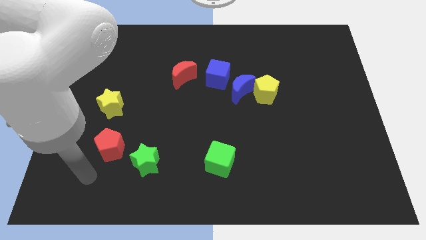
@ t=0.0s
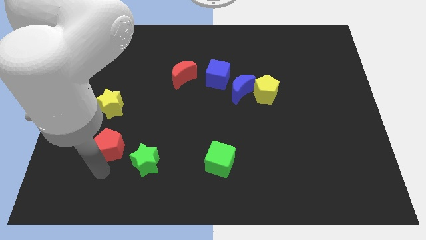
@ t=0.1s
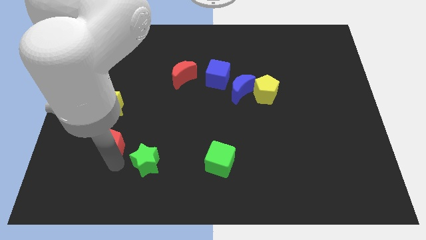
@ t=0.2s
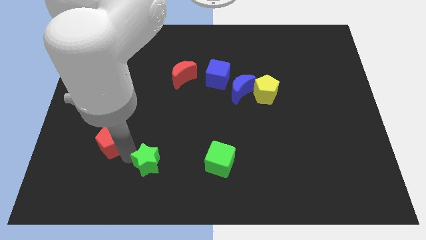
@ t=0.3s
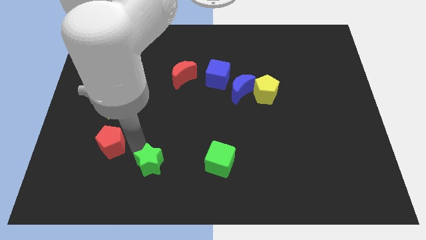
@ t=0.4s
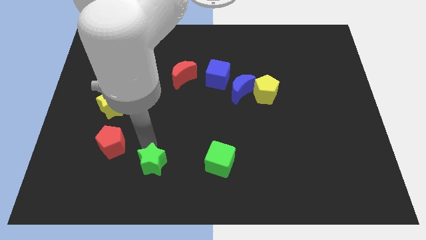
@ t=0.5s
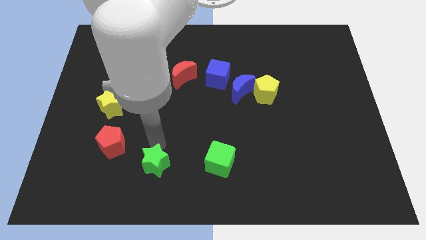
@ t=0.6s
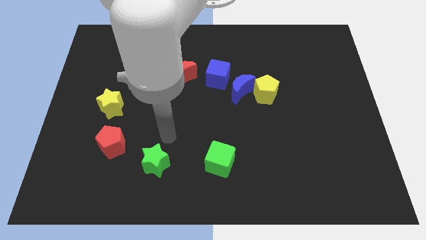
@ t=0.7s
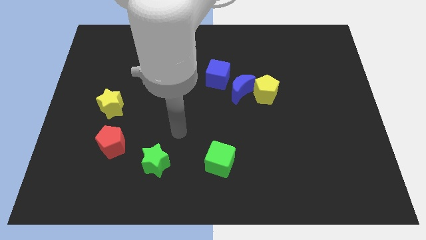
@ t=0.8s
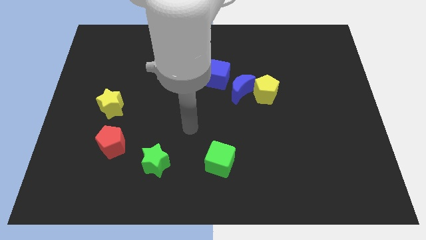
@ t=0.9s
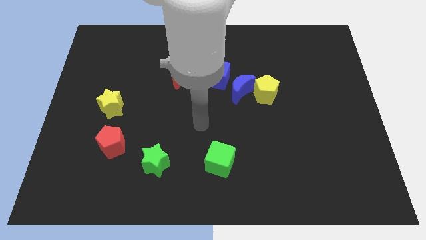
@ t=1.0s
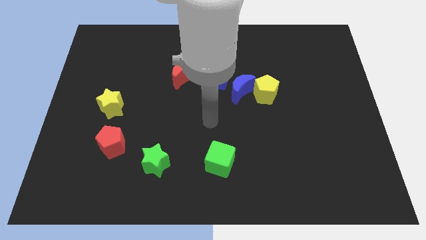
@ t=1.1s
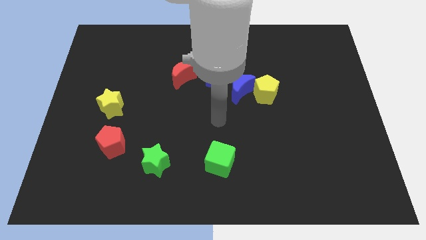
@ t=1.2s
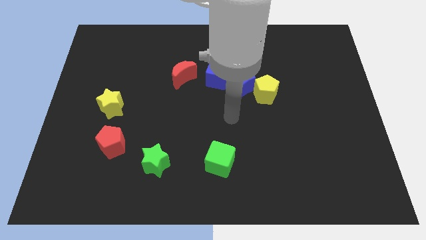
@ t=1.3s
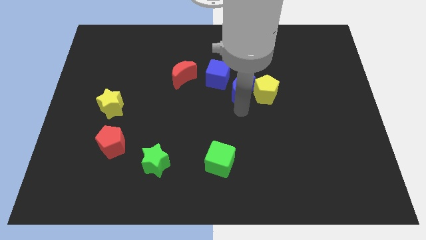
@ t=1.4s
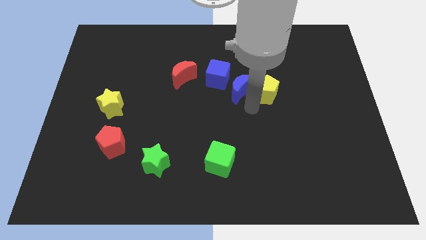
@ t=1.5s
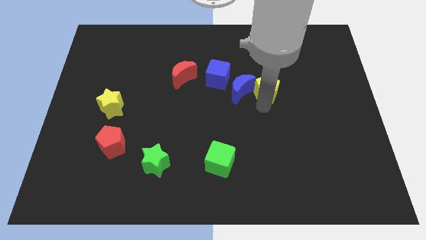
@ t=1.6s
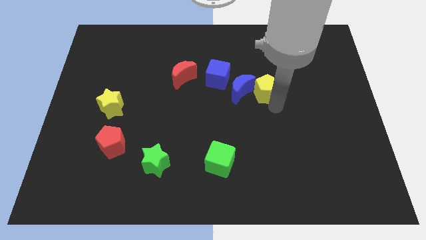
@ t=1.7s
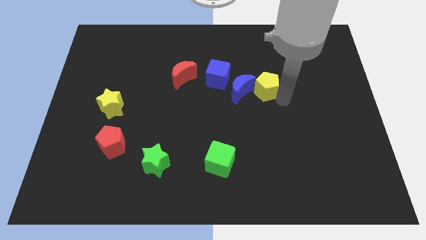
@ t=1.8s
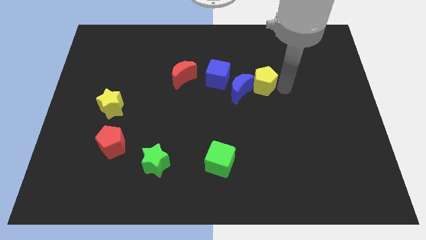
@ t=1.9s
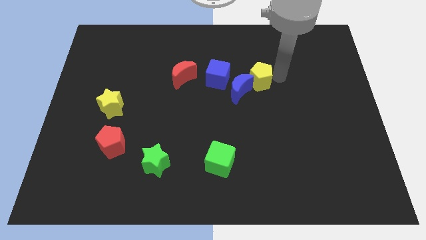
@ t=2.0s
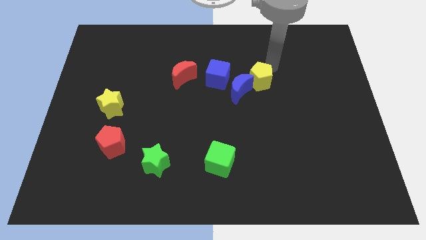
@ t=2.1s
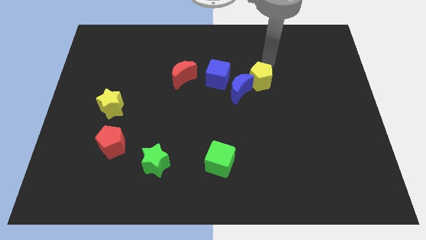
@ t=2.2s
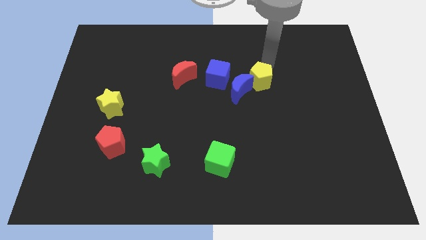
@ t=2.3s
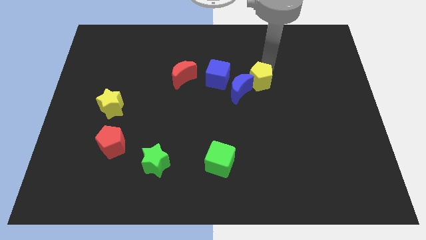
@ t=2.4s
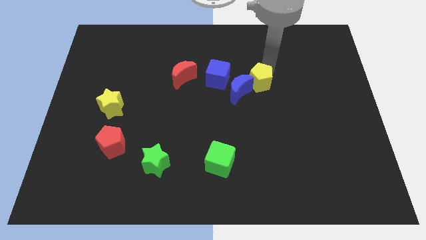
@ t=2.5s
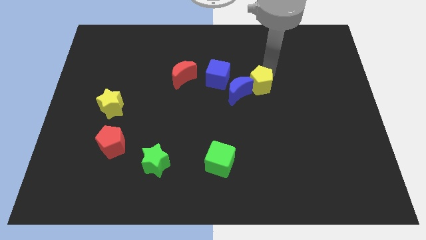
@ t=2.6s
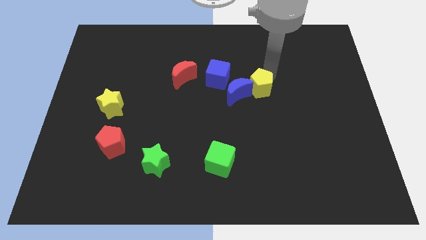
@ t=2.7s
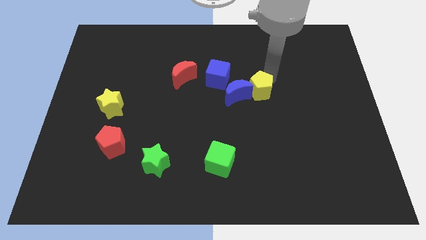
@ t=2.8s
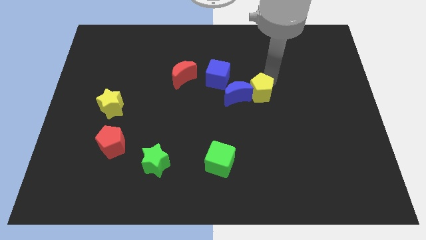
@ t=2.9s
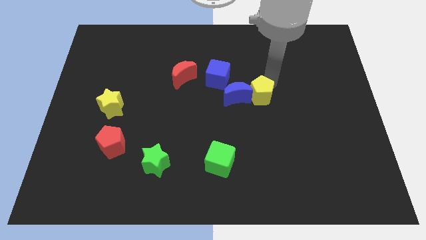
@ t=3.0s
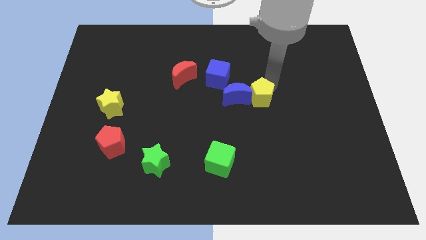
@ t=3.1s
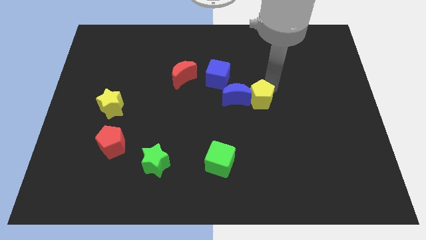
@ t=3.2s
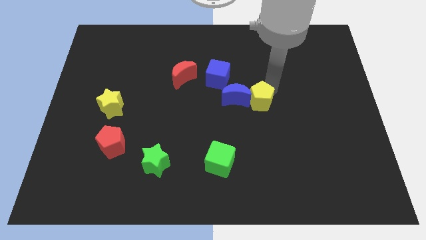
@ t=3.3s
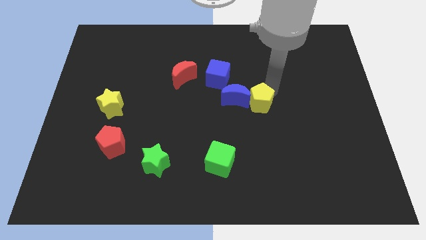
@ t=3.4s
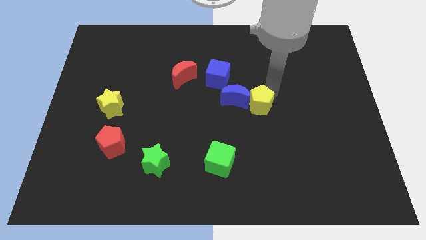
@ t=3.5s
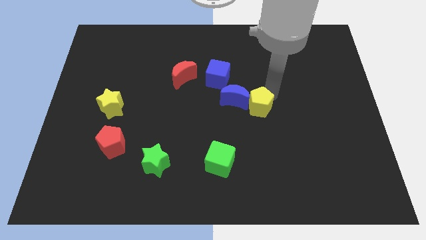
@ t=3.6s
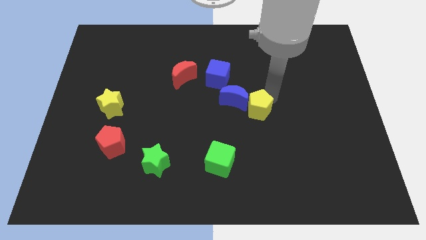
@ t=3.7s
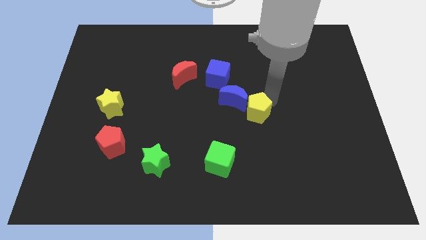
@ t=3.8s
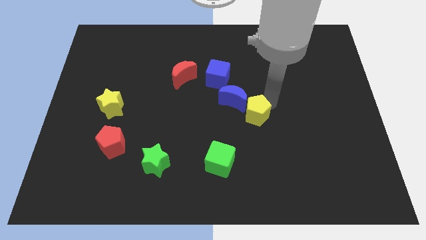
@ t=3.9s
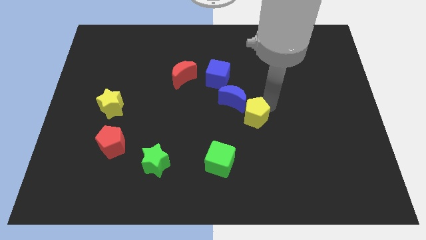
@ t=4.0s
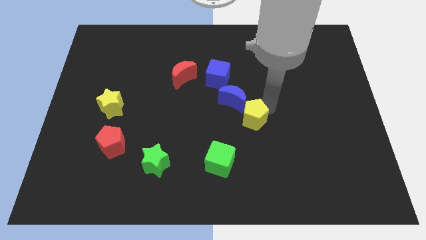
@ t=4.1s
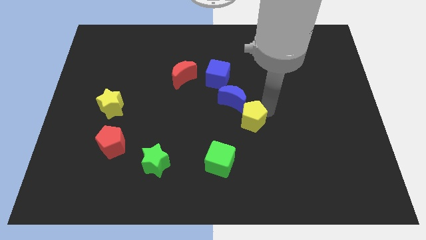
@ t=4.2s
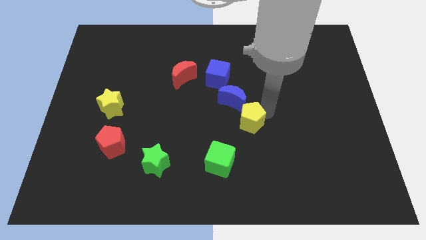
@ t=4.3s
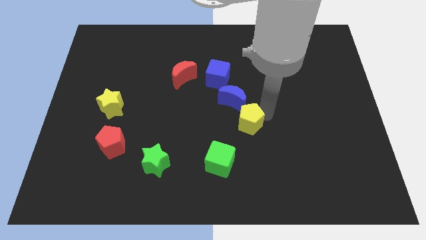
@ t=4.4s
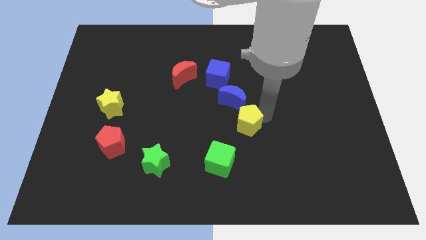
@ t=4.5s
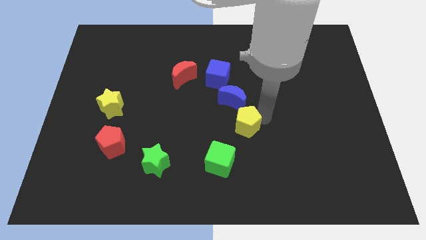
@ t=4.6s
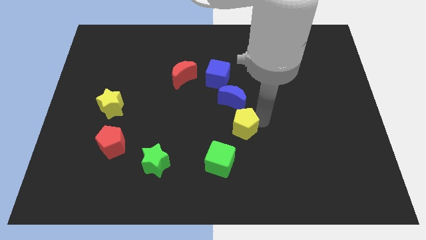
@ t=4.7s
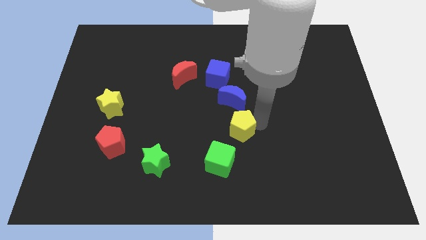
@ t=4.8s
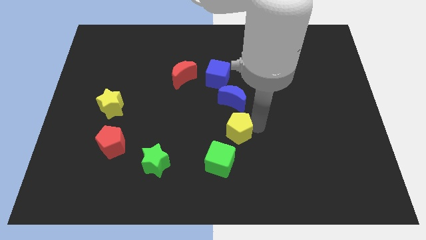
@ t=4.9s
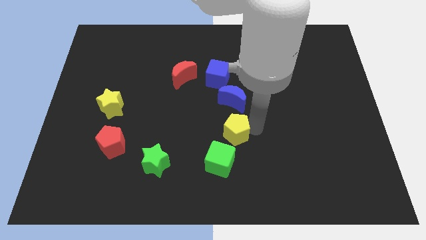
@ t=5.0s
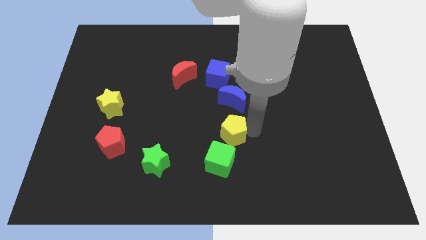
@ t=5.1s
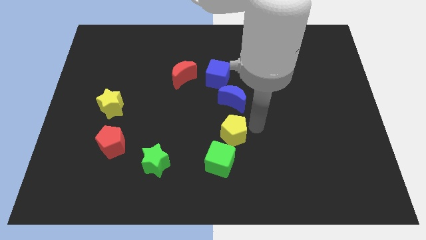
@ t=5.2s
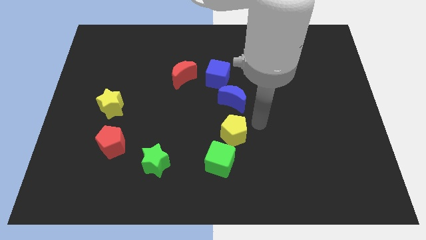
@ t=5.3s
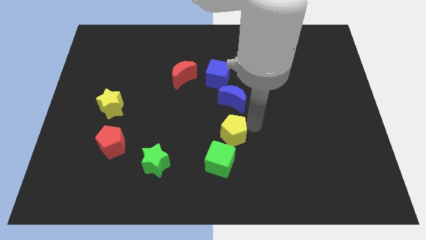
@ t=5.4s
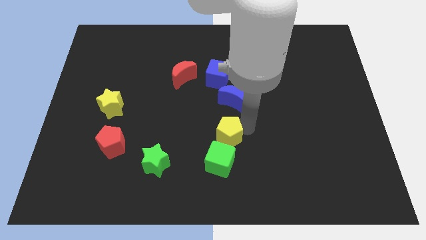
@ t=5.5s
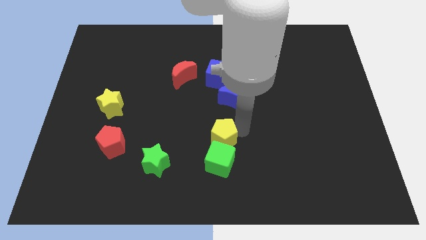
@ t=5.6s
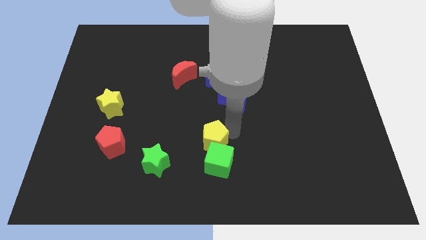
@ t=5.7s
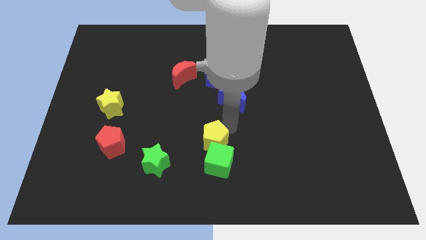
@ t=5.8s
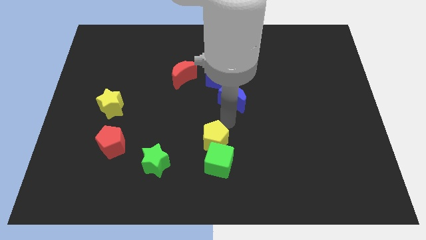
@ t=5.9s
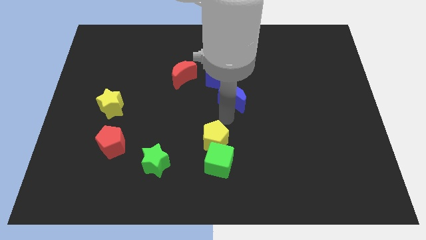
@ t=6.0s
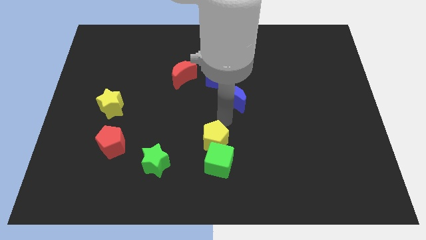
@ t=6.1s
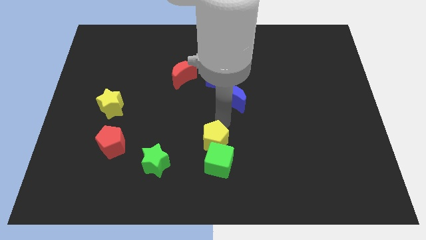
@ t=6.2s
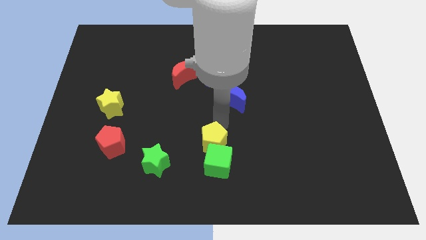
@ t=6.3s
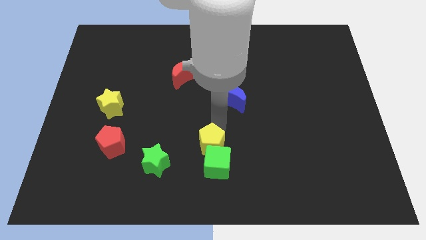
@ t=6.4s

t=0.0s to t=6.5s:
put the yellow pentagon just right of the green star

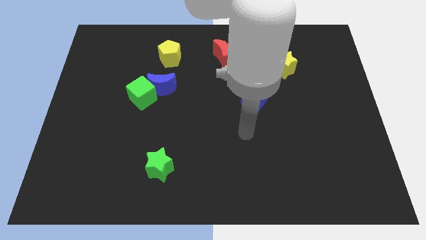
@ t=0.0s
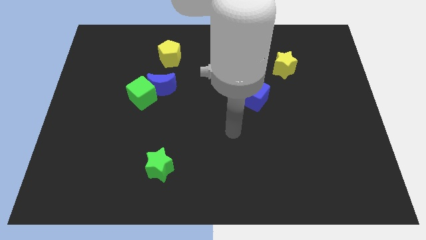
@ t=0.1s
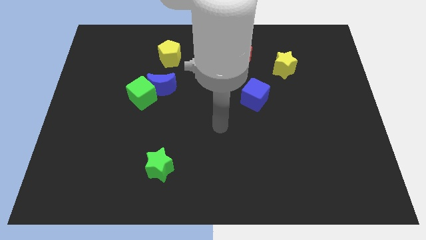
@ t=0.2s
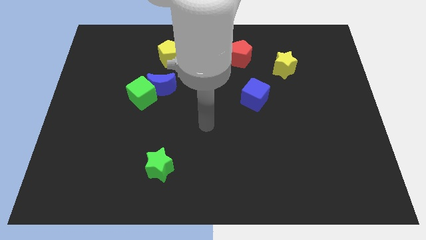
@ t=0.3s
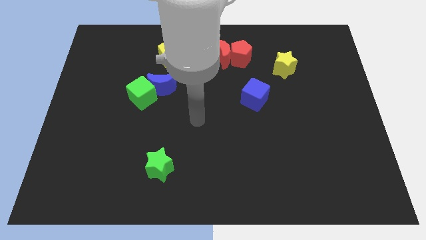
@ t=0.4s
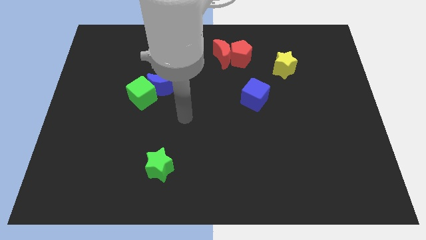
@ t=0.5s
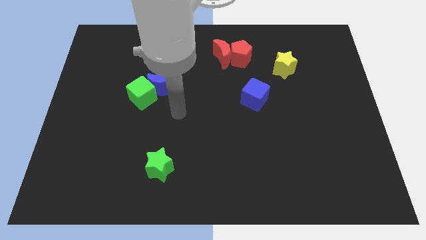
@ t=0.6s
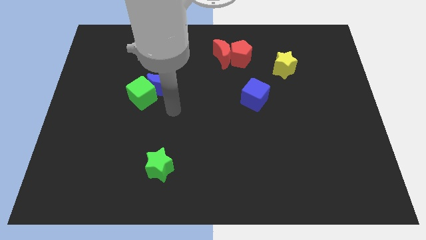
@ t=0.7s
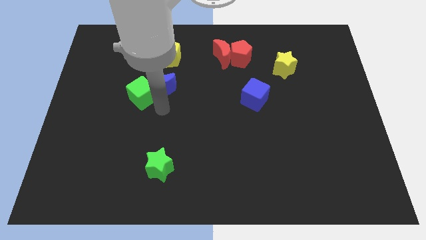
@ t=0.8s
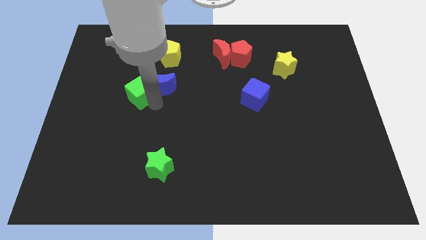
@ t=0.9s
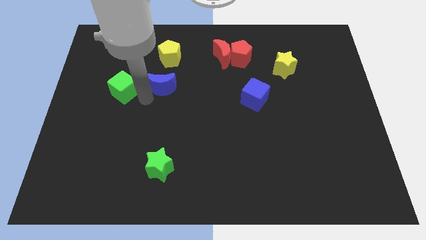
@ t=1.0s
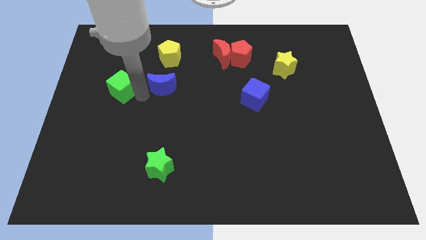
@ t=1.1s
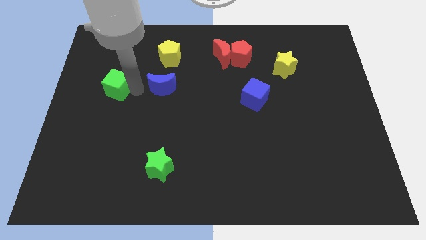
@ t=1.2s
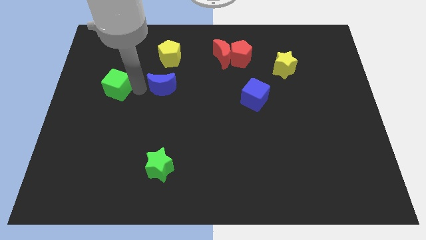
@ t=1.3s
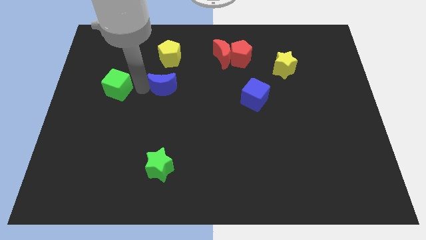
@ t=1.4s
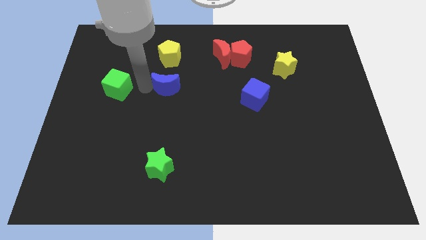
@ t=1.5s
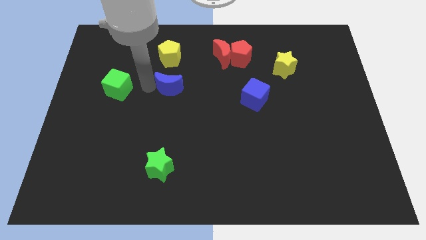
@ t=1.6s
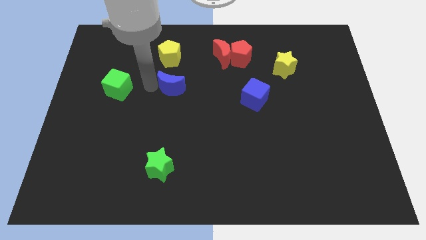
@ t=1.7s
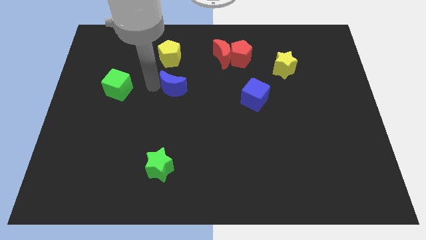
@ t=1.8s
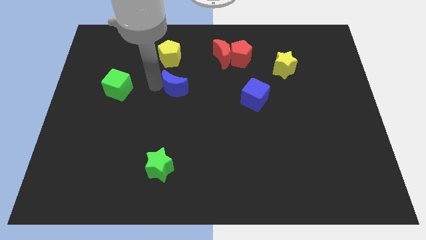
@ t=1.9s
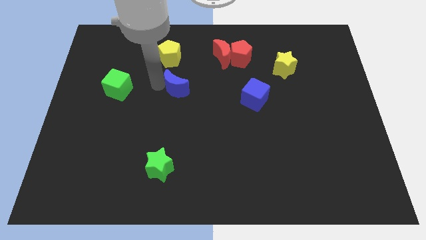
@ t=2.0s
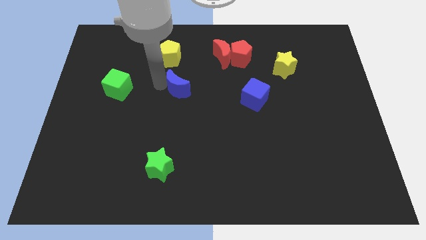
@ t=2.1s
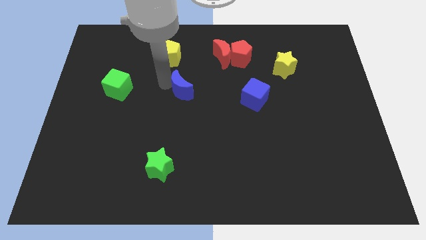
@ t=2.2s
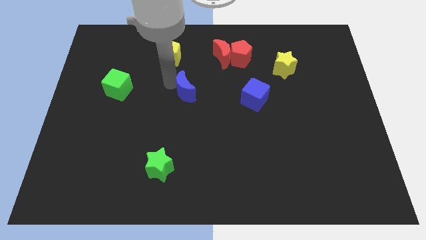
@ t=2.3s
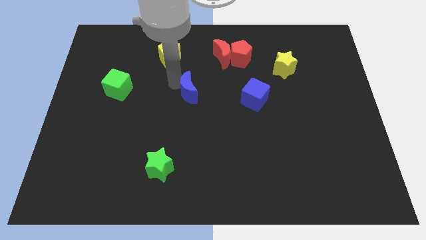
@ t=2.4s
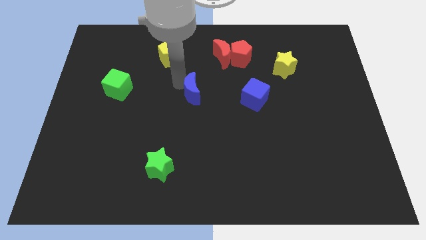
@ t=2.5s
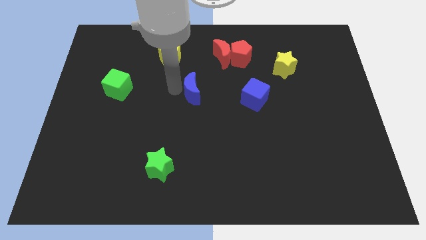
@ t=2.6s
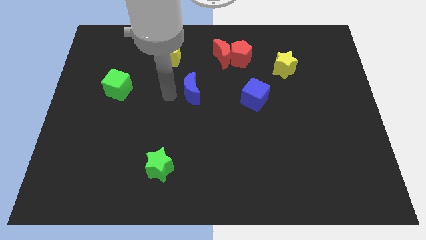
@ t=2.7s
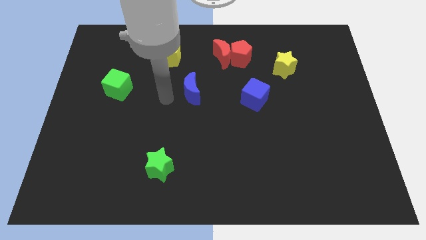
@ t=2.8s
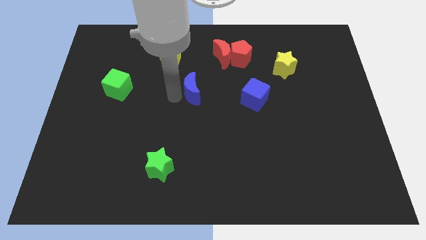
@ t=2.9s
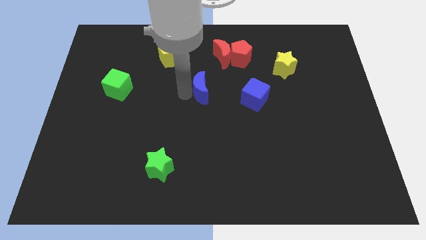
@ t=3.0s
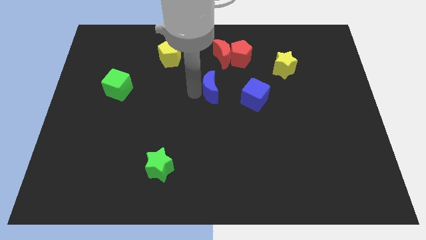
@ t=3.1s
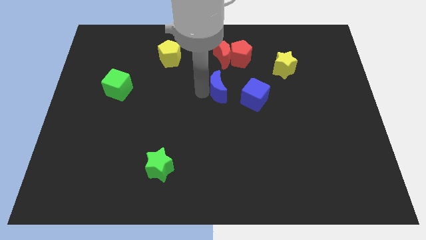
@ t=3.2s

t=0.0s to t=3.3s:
put the blue moon to the top left of the blue cube
